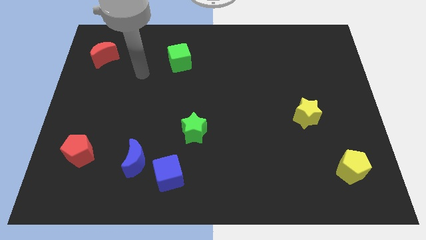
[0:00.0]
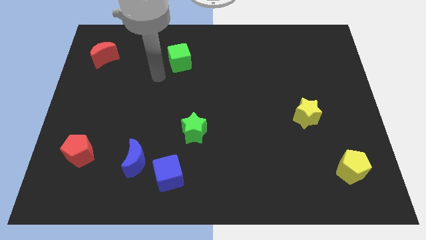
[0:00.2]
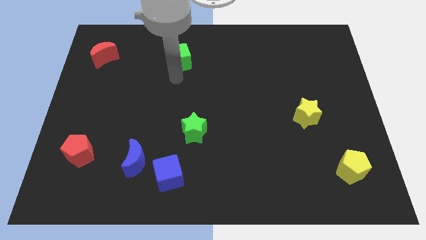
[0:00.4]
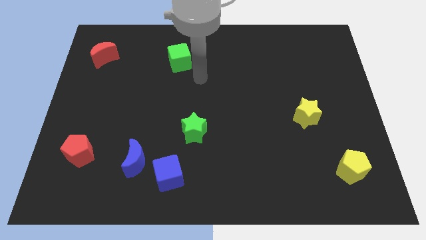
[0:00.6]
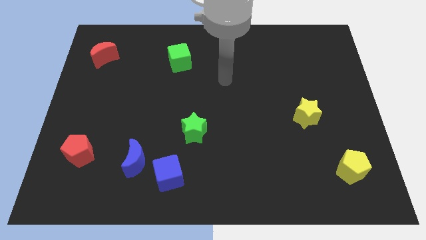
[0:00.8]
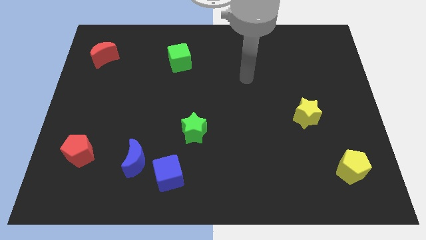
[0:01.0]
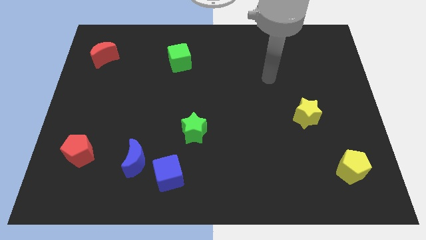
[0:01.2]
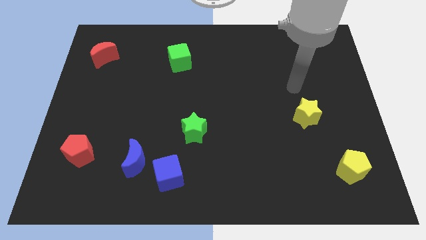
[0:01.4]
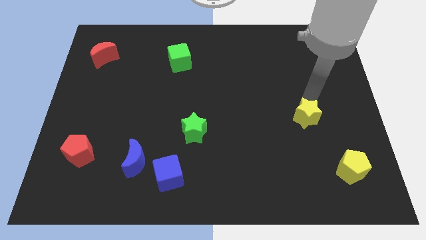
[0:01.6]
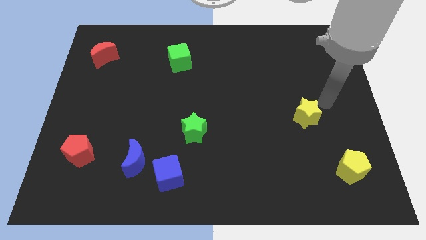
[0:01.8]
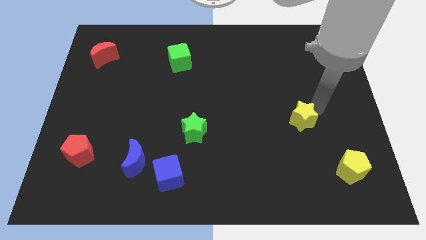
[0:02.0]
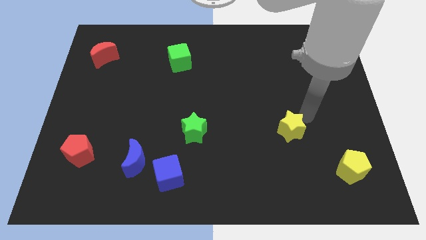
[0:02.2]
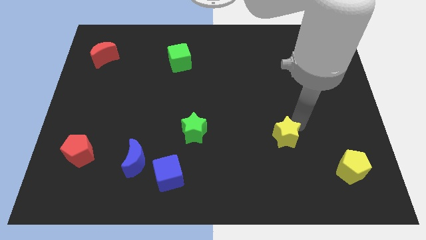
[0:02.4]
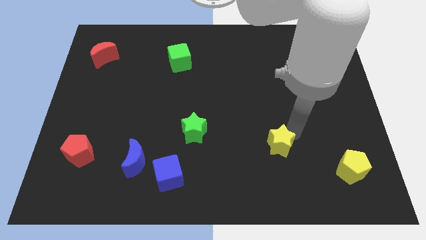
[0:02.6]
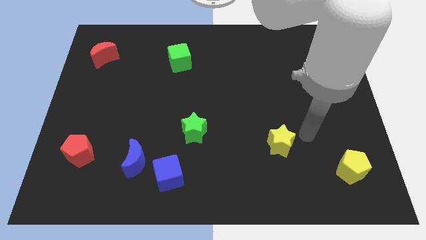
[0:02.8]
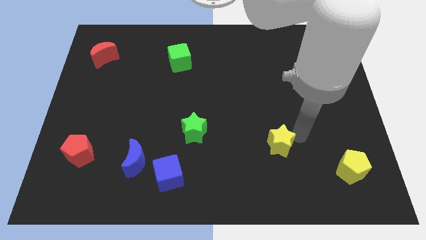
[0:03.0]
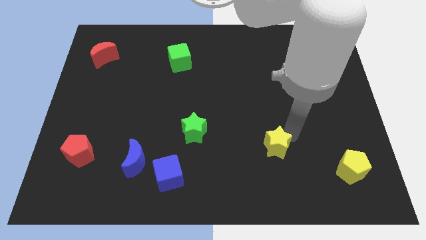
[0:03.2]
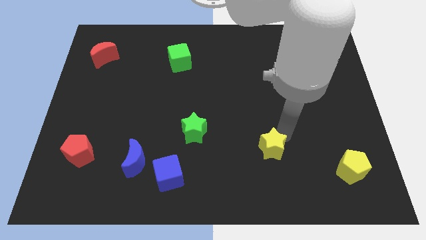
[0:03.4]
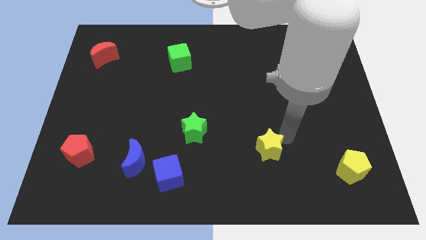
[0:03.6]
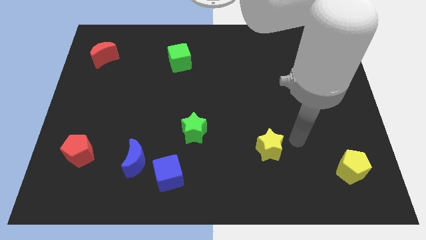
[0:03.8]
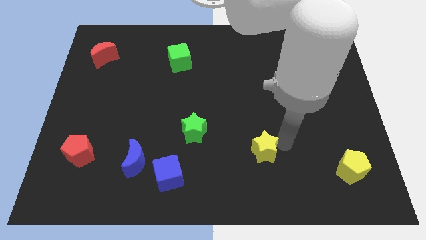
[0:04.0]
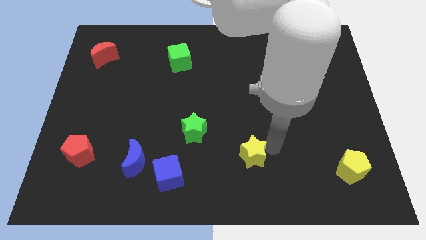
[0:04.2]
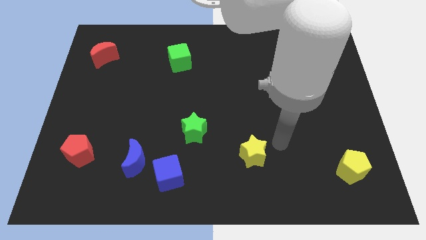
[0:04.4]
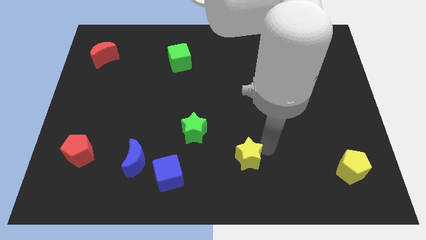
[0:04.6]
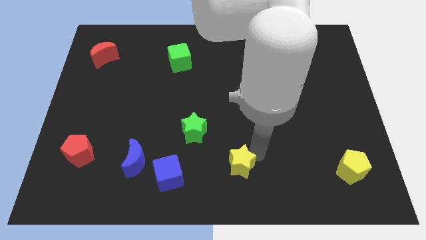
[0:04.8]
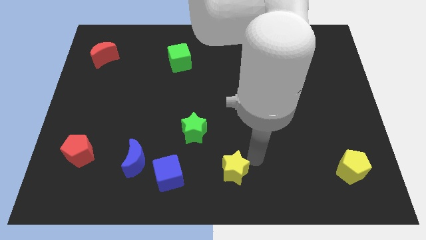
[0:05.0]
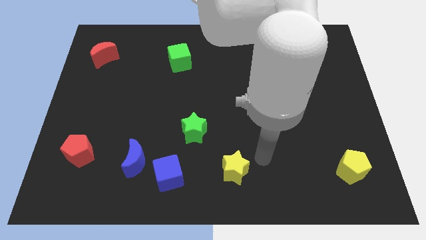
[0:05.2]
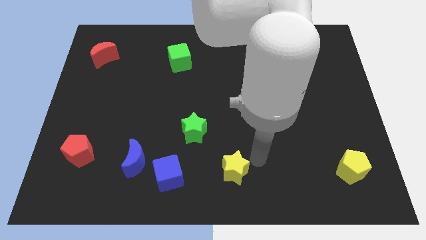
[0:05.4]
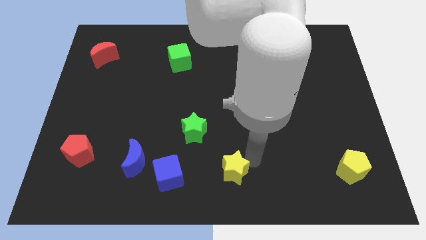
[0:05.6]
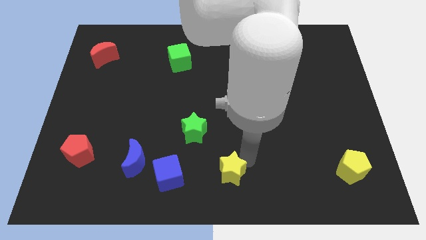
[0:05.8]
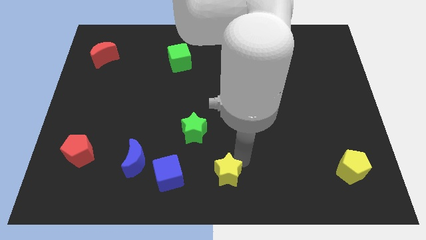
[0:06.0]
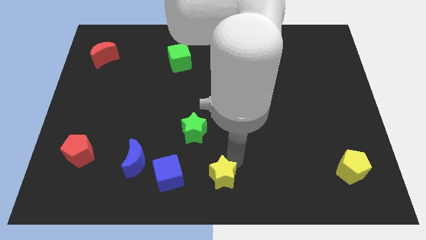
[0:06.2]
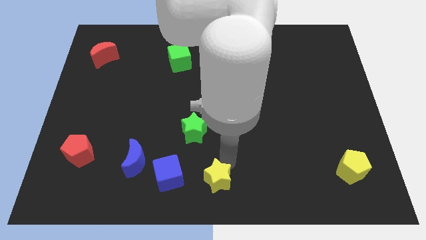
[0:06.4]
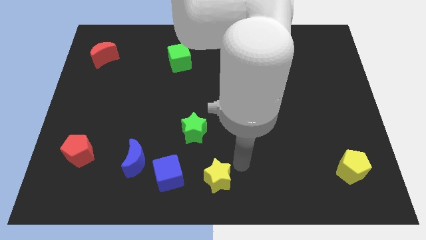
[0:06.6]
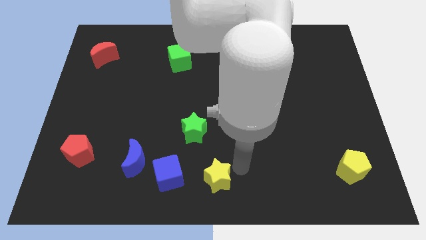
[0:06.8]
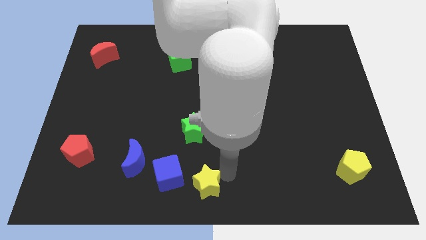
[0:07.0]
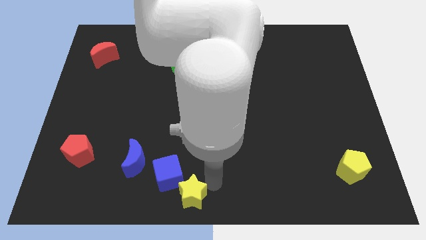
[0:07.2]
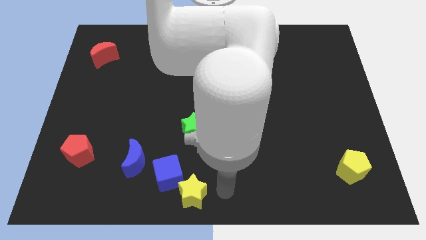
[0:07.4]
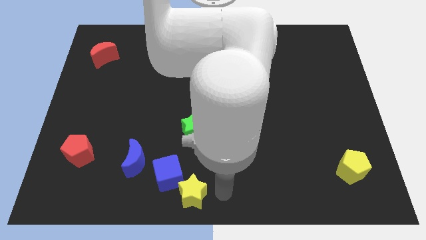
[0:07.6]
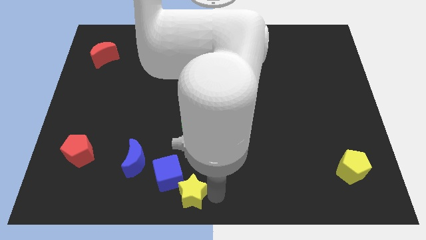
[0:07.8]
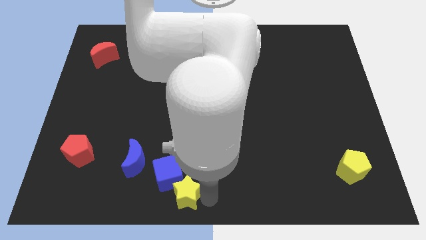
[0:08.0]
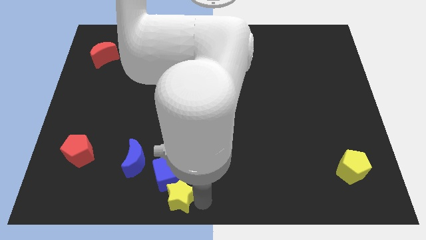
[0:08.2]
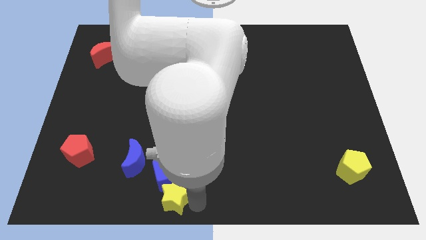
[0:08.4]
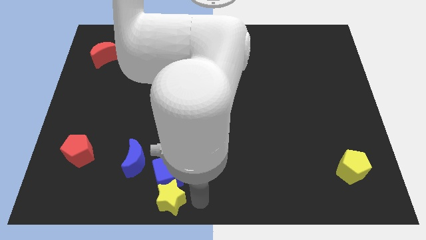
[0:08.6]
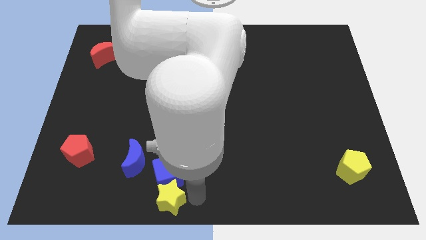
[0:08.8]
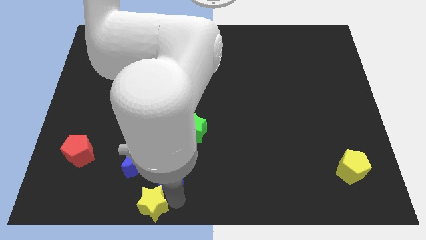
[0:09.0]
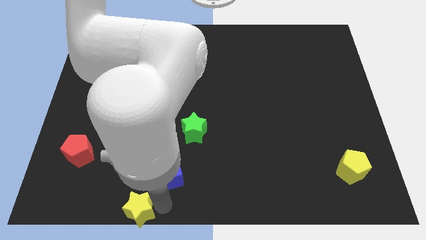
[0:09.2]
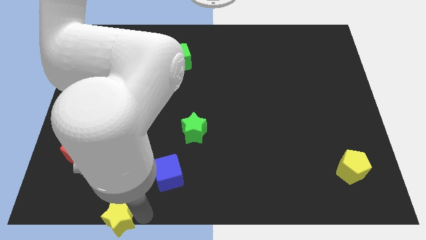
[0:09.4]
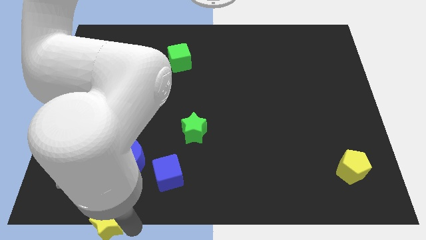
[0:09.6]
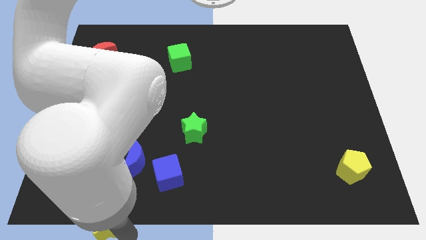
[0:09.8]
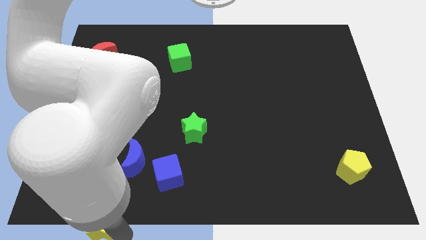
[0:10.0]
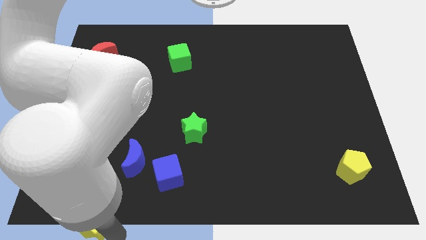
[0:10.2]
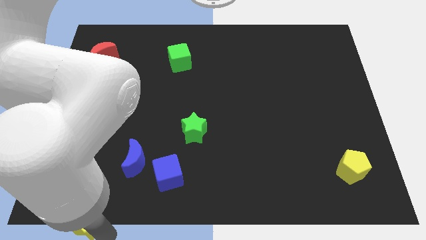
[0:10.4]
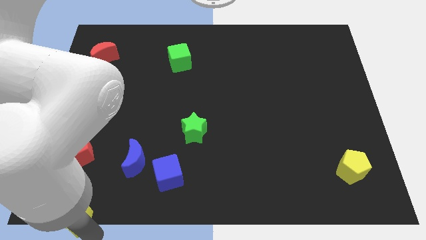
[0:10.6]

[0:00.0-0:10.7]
push the yellow star to the bottom left corner
